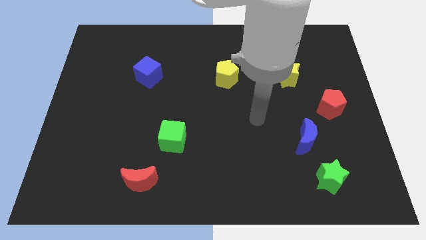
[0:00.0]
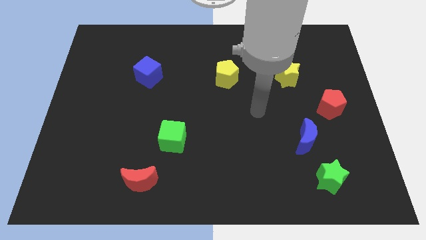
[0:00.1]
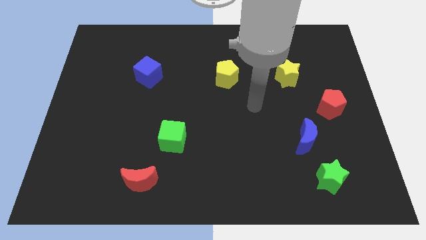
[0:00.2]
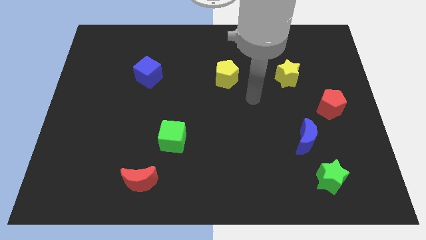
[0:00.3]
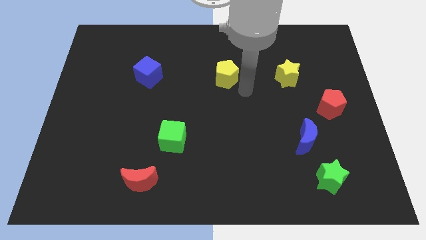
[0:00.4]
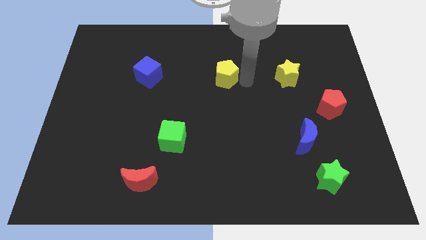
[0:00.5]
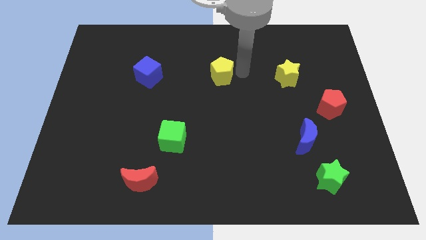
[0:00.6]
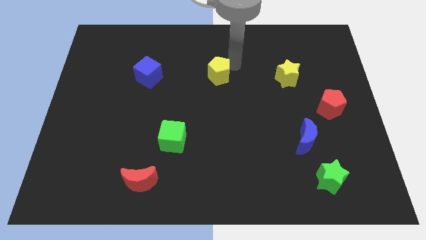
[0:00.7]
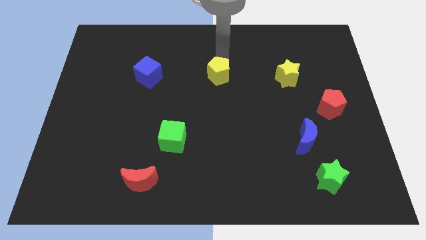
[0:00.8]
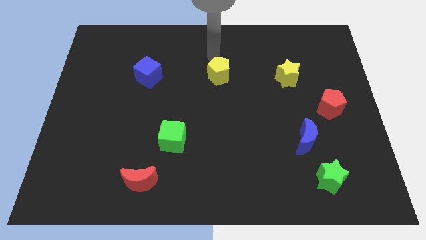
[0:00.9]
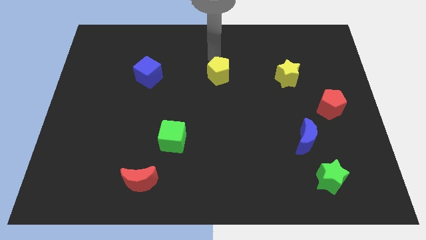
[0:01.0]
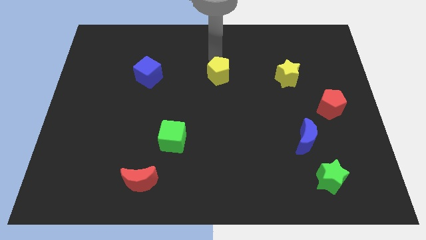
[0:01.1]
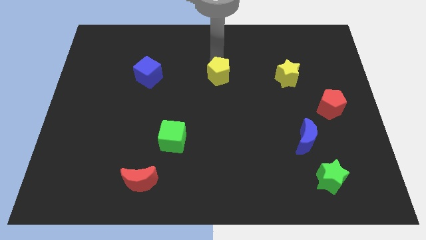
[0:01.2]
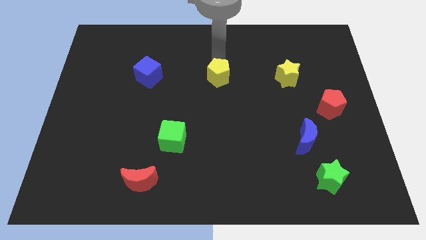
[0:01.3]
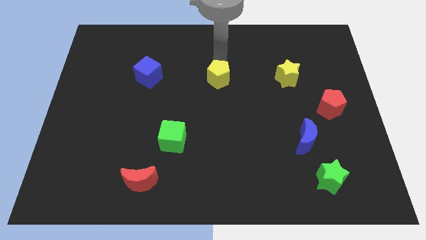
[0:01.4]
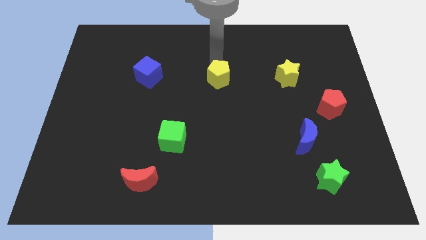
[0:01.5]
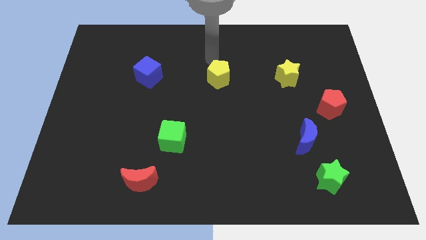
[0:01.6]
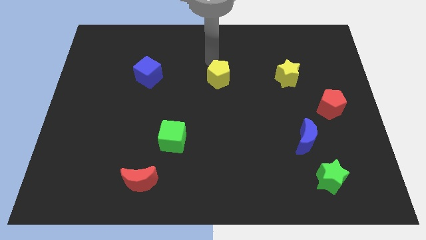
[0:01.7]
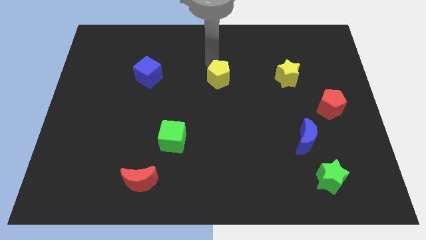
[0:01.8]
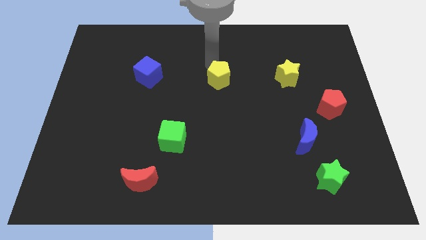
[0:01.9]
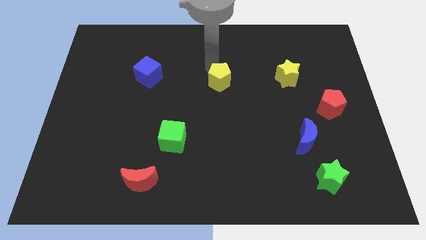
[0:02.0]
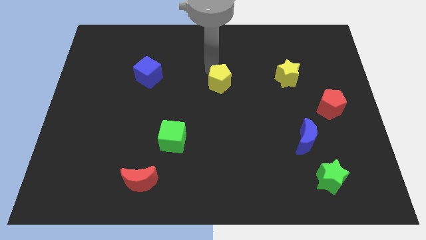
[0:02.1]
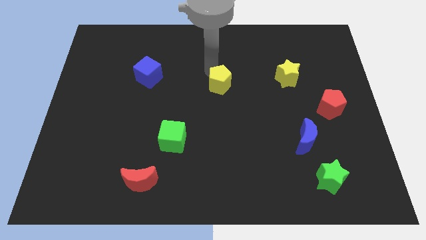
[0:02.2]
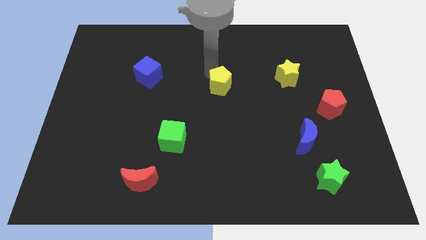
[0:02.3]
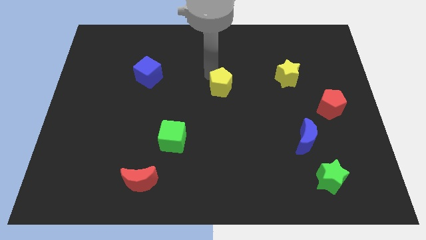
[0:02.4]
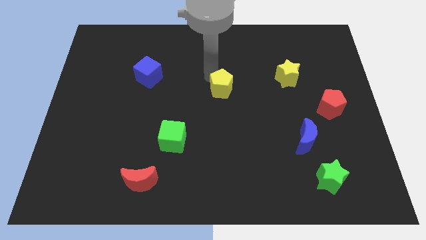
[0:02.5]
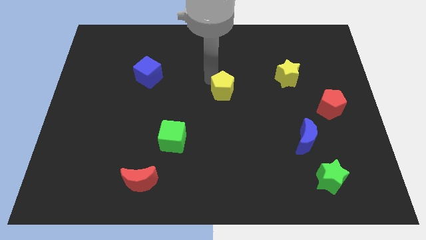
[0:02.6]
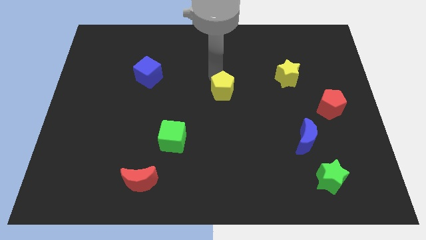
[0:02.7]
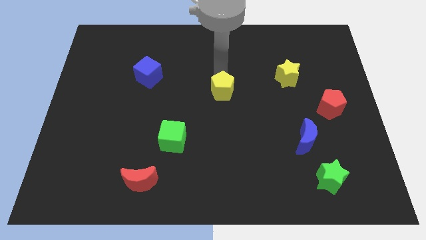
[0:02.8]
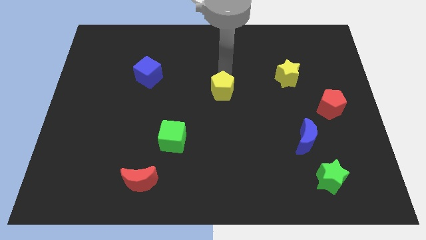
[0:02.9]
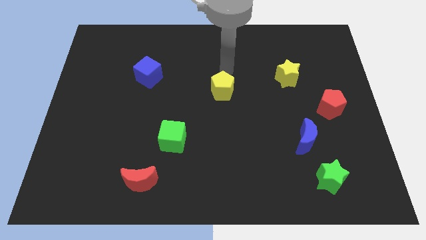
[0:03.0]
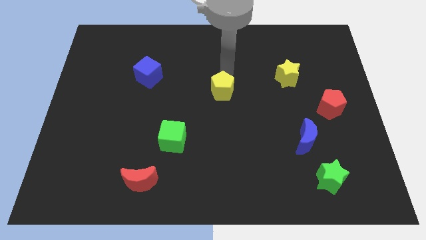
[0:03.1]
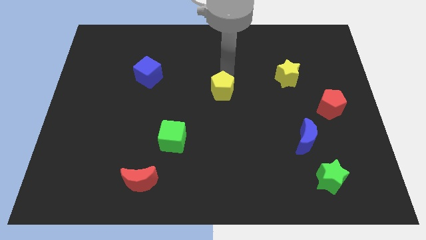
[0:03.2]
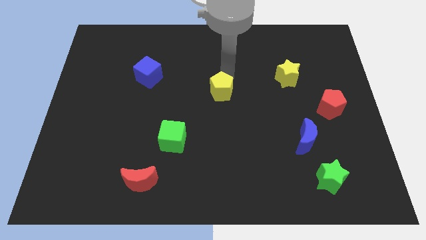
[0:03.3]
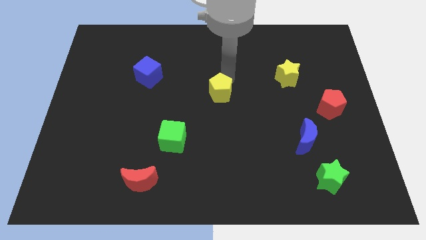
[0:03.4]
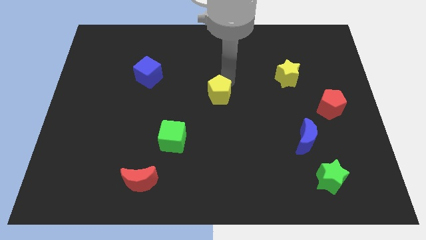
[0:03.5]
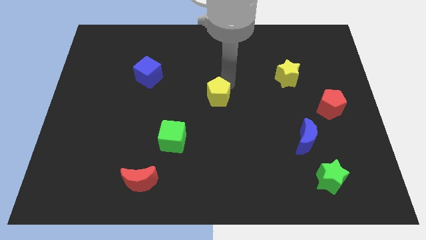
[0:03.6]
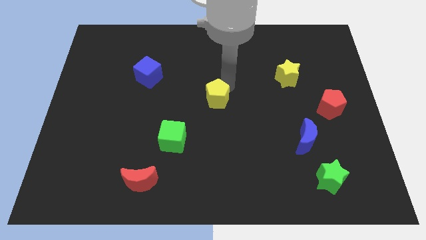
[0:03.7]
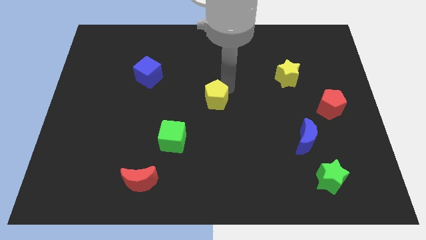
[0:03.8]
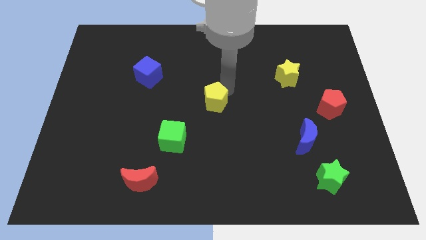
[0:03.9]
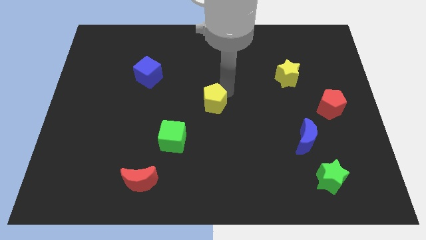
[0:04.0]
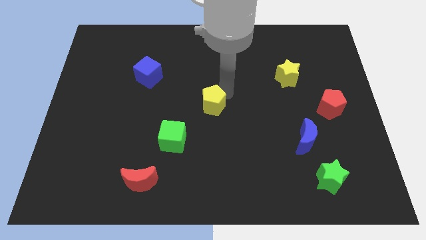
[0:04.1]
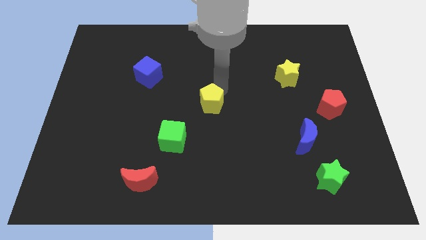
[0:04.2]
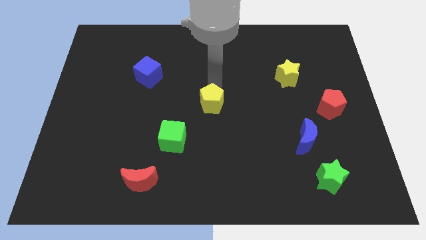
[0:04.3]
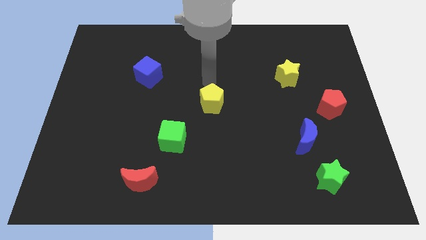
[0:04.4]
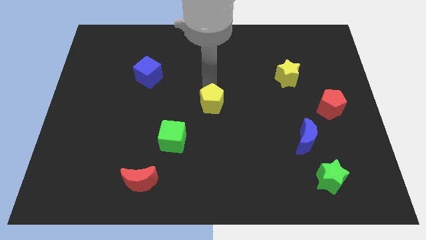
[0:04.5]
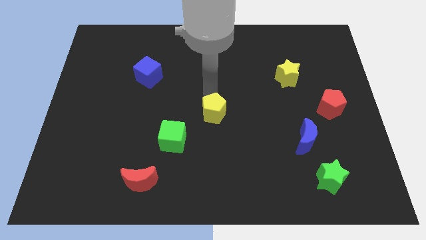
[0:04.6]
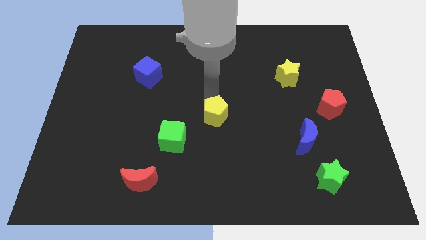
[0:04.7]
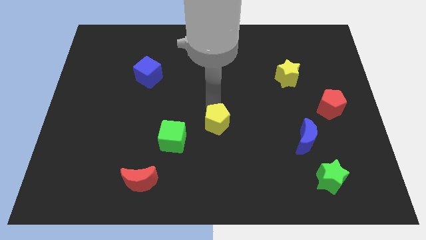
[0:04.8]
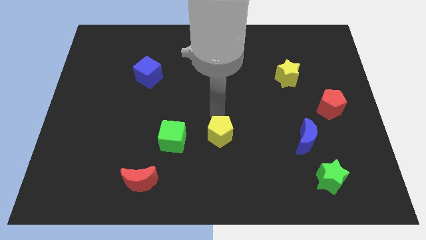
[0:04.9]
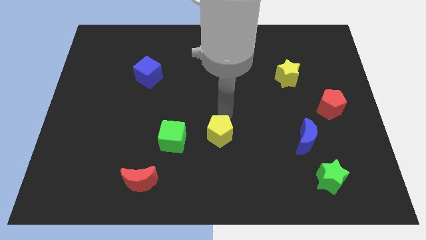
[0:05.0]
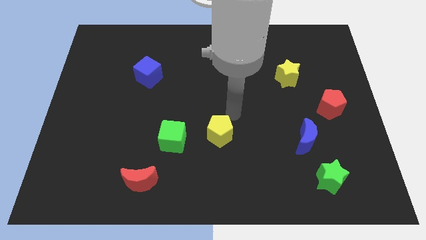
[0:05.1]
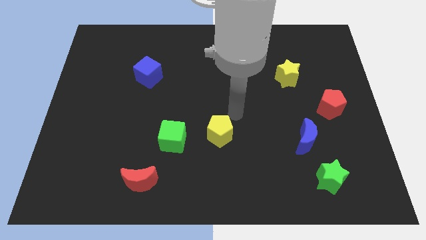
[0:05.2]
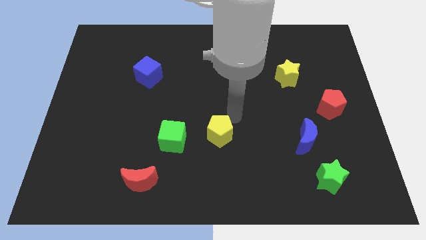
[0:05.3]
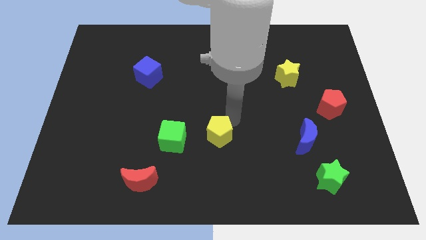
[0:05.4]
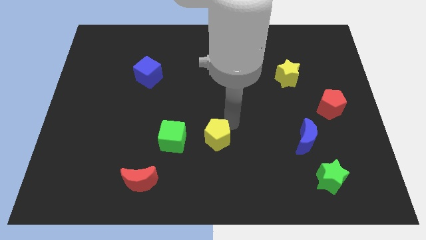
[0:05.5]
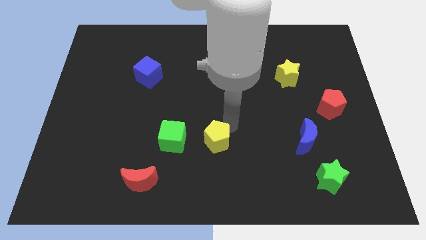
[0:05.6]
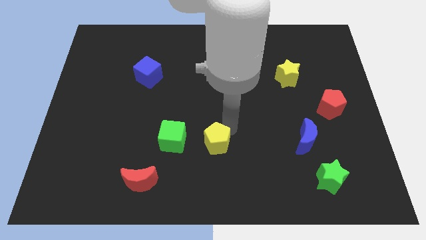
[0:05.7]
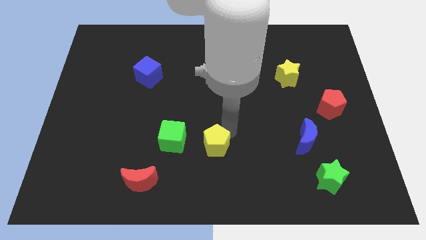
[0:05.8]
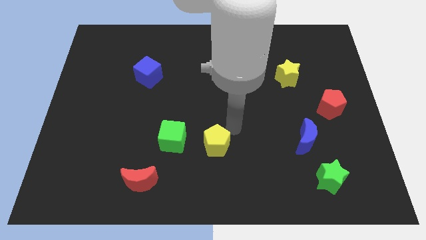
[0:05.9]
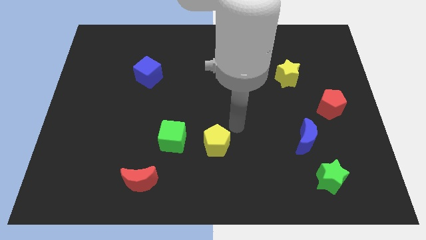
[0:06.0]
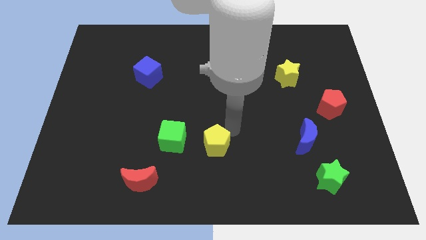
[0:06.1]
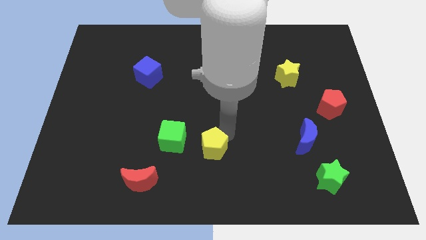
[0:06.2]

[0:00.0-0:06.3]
push the yellow pentagon diagonally down and to the right of the green cube

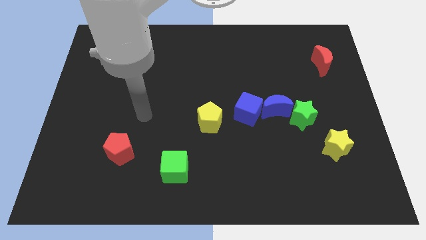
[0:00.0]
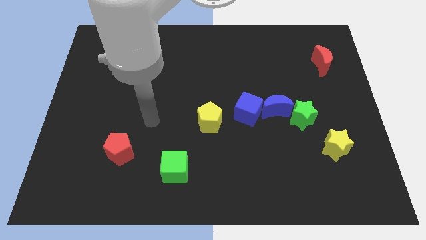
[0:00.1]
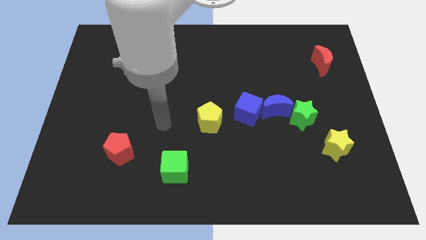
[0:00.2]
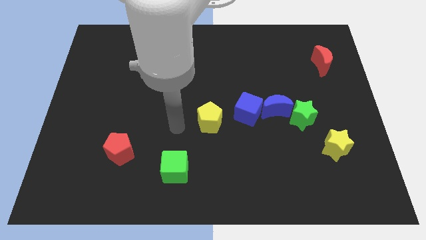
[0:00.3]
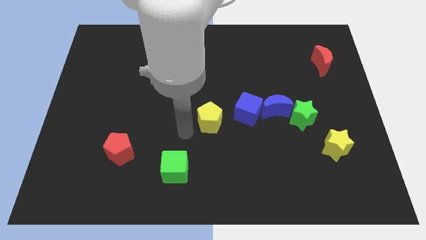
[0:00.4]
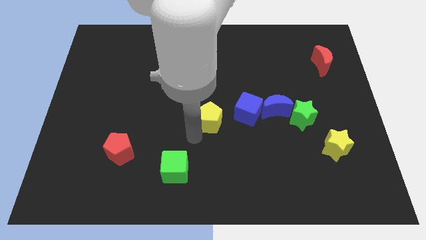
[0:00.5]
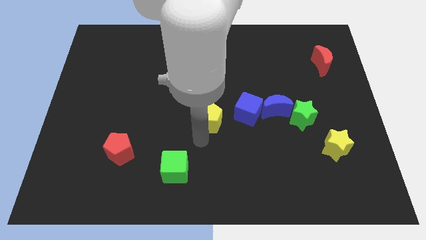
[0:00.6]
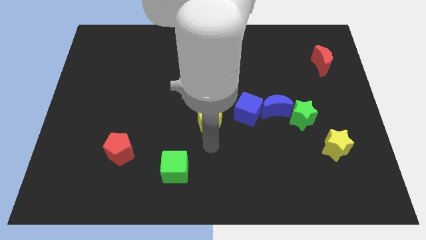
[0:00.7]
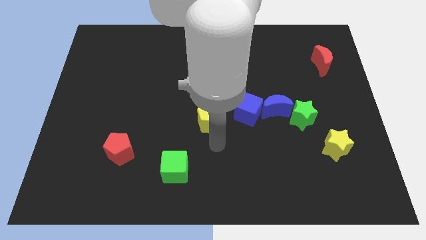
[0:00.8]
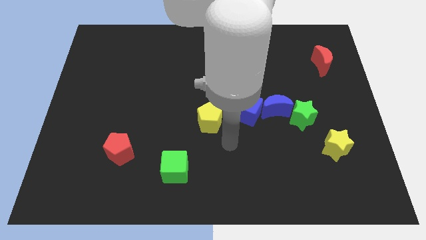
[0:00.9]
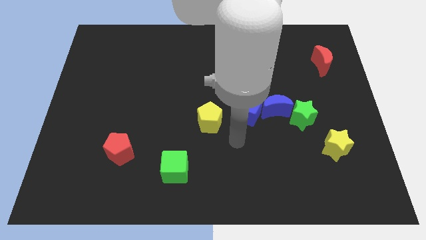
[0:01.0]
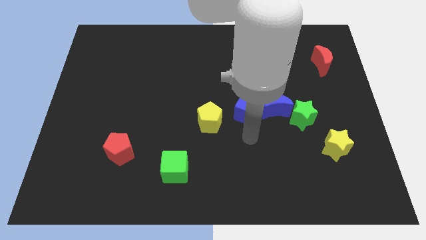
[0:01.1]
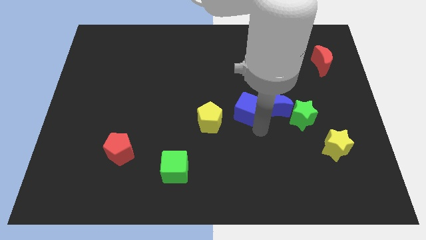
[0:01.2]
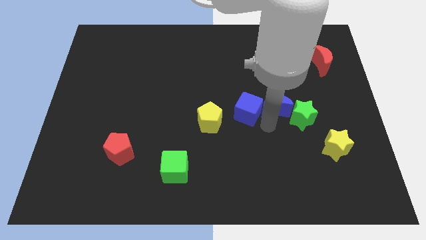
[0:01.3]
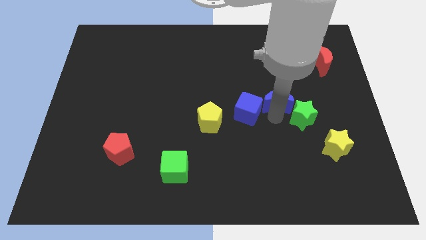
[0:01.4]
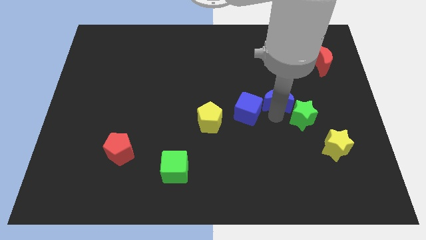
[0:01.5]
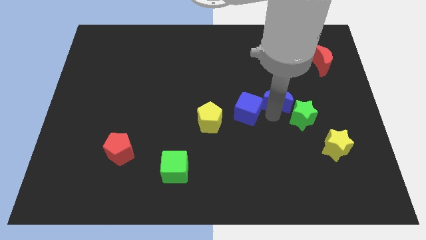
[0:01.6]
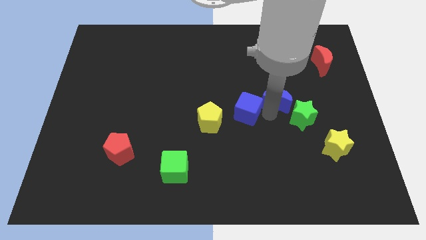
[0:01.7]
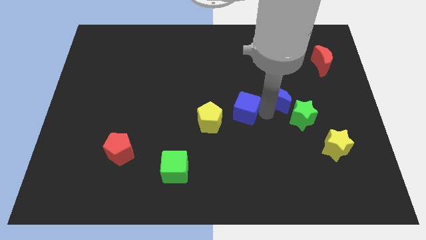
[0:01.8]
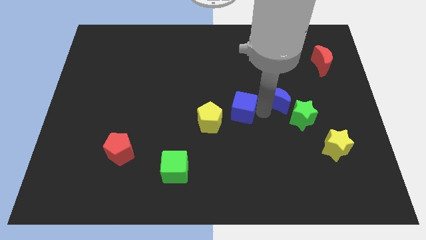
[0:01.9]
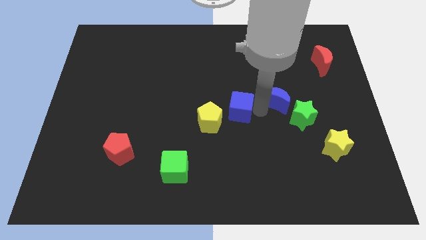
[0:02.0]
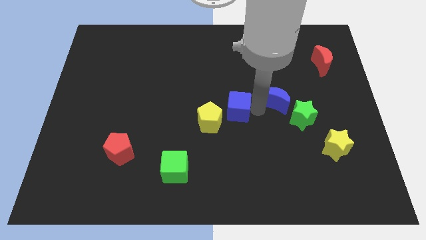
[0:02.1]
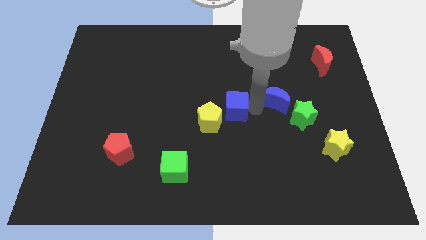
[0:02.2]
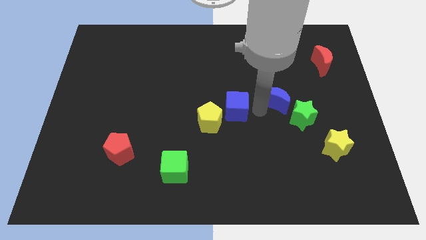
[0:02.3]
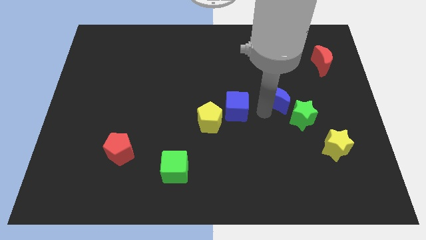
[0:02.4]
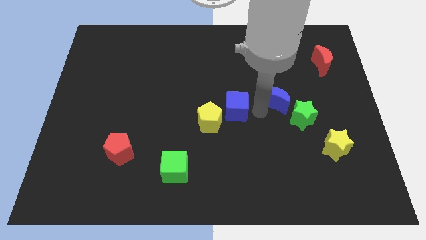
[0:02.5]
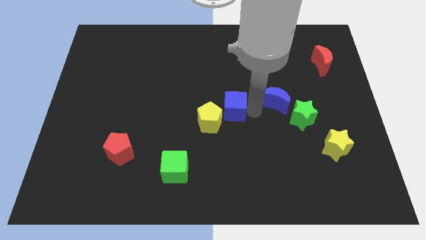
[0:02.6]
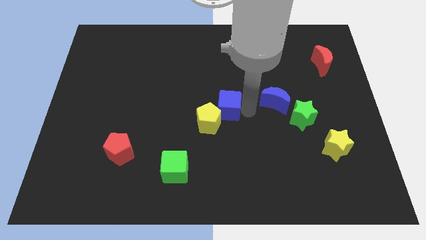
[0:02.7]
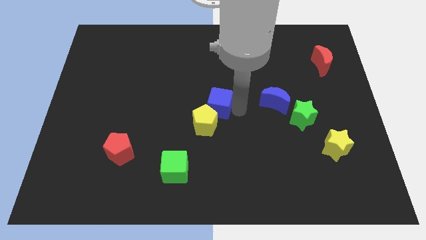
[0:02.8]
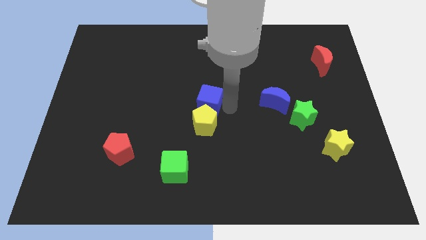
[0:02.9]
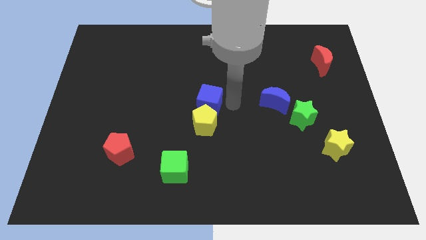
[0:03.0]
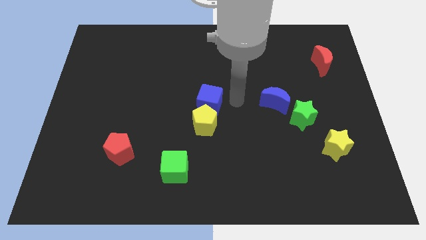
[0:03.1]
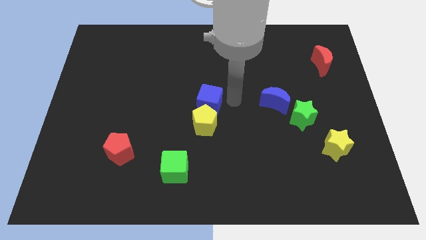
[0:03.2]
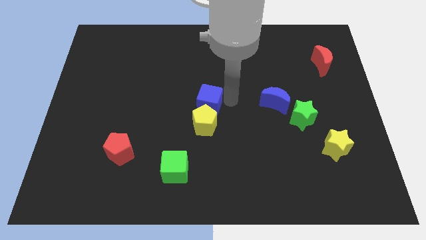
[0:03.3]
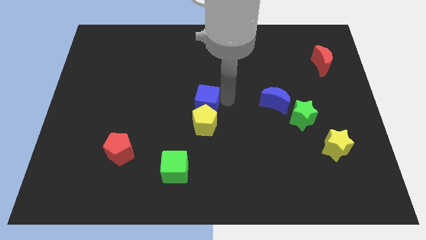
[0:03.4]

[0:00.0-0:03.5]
put the blue cube to the top left side of the yellow pentagon
